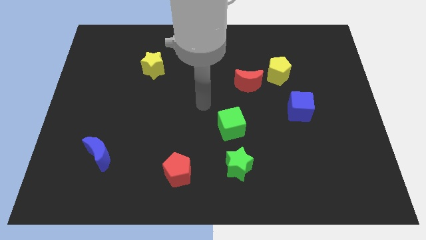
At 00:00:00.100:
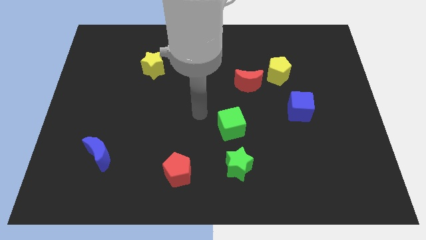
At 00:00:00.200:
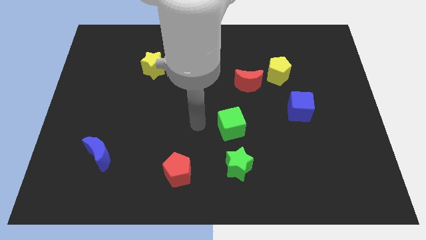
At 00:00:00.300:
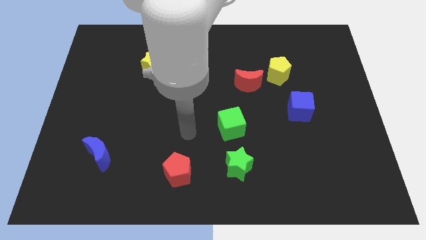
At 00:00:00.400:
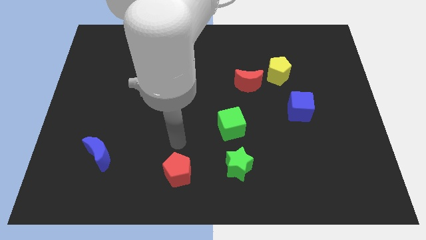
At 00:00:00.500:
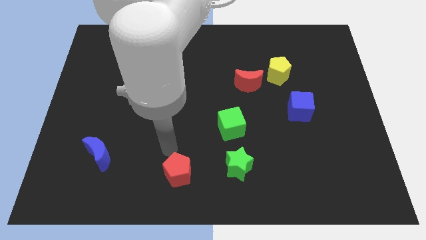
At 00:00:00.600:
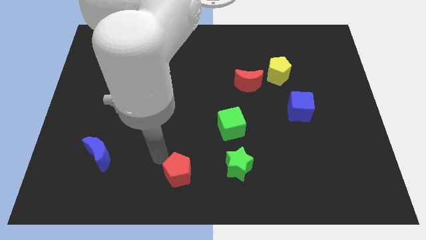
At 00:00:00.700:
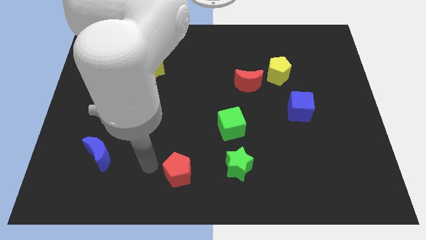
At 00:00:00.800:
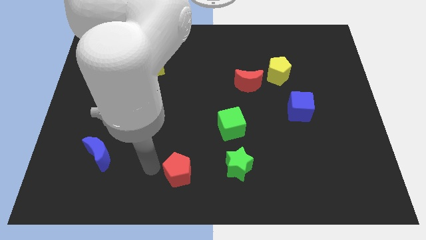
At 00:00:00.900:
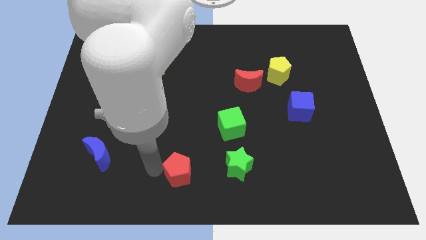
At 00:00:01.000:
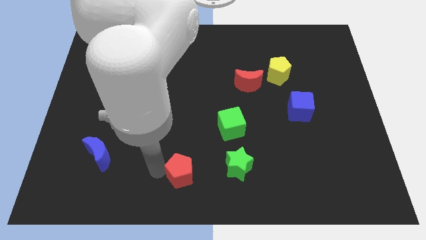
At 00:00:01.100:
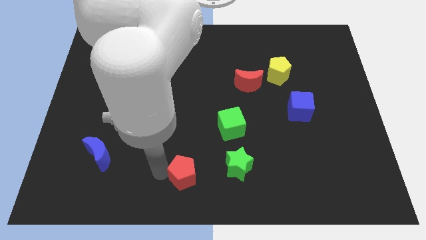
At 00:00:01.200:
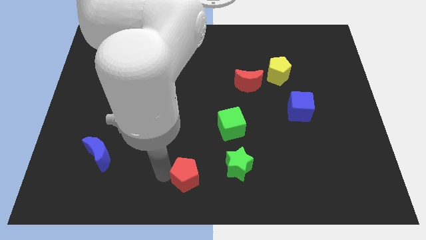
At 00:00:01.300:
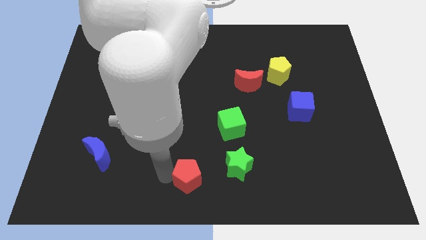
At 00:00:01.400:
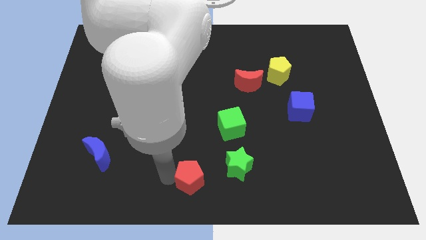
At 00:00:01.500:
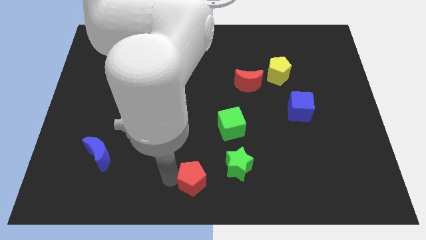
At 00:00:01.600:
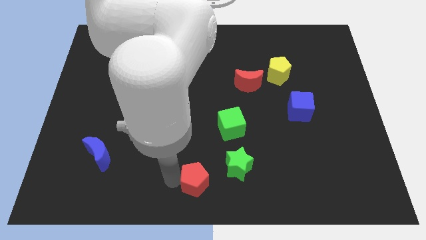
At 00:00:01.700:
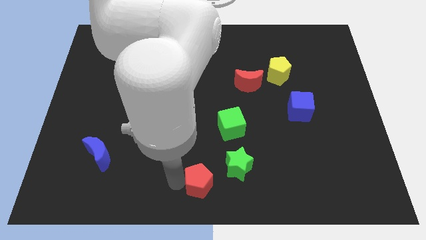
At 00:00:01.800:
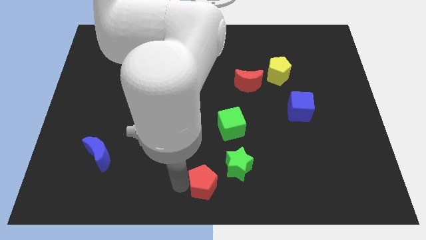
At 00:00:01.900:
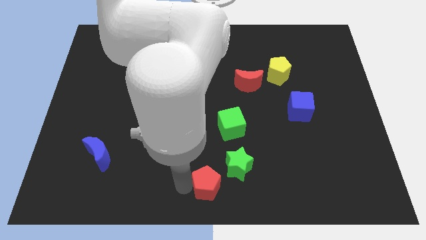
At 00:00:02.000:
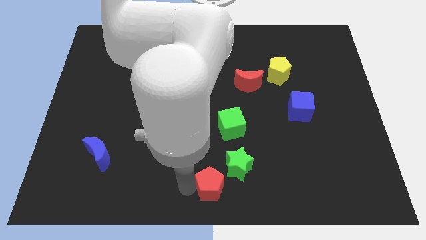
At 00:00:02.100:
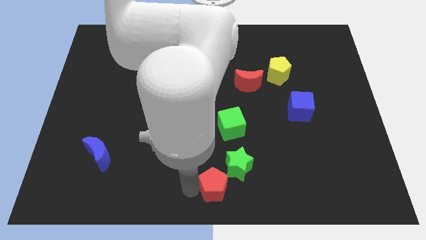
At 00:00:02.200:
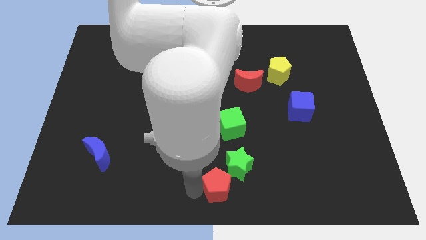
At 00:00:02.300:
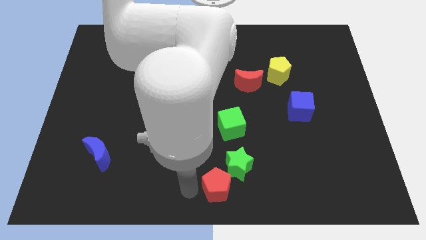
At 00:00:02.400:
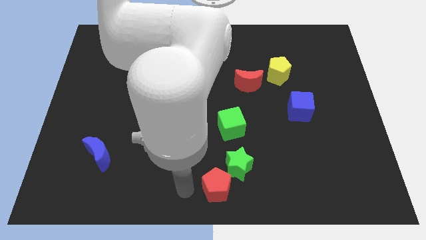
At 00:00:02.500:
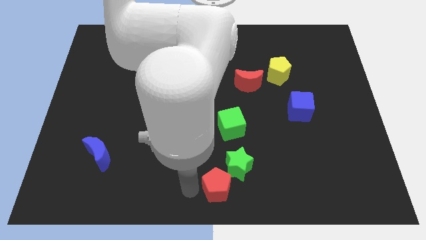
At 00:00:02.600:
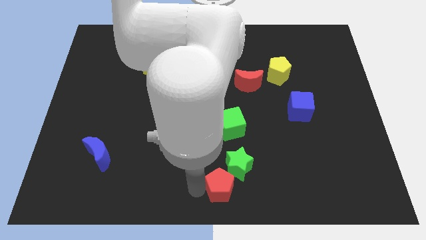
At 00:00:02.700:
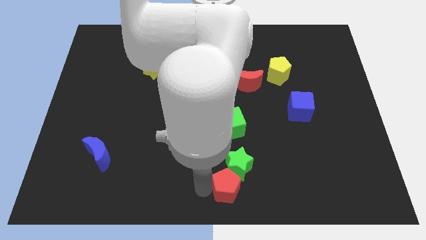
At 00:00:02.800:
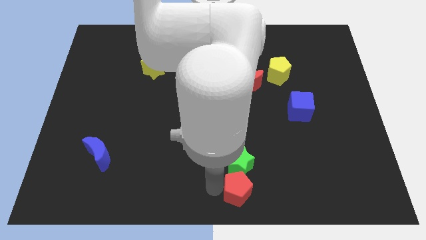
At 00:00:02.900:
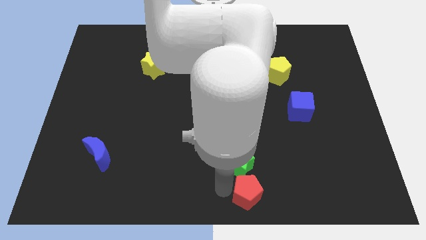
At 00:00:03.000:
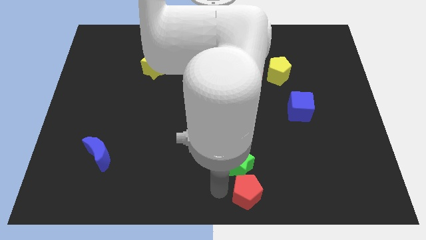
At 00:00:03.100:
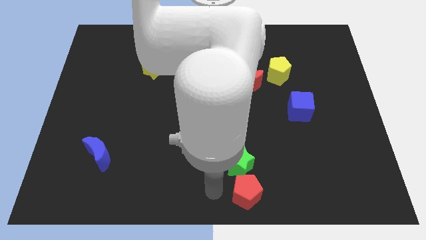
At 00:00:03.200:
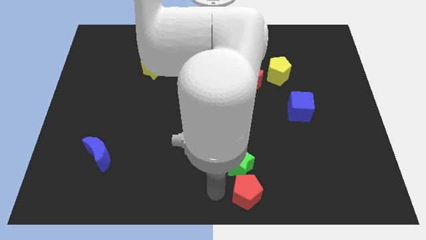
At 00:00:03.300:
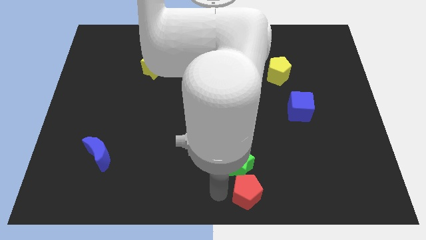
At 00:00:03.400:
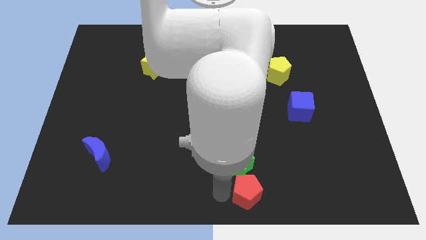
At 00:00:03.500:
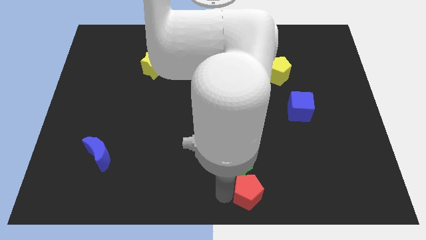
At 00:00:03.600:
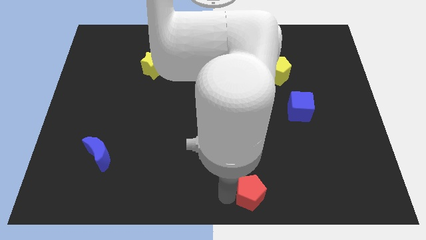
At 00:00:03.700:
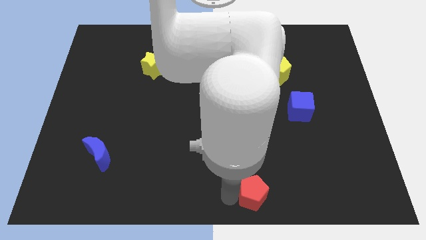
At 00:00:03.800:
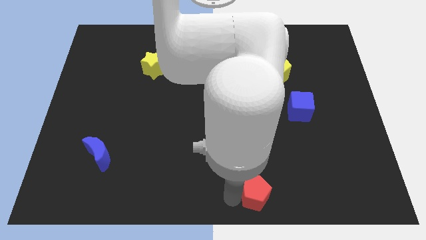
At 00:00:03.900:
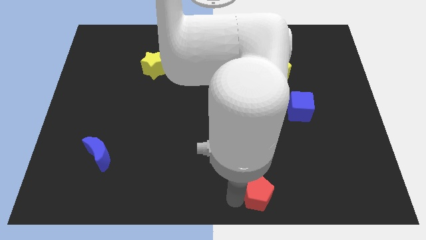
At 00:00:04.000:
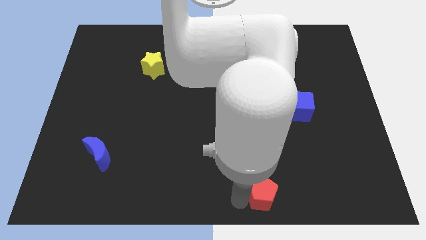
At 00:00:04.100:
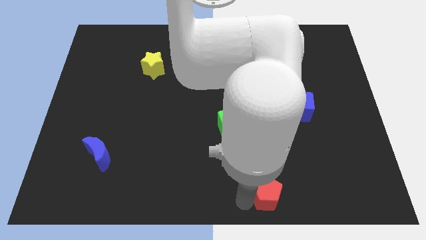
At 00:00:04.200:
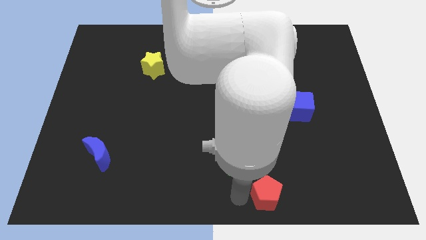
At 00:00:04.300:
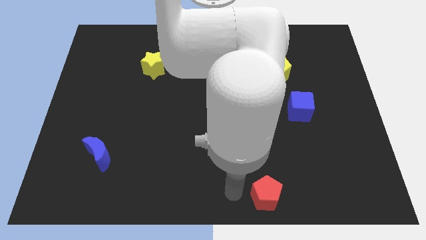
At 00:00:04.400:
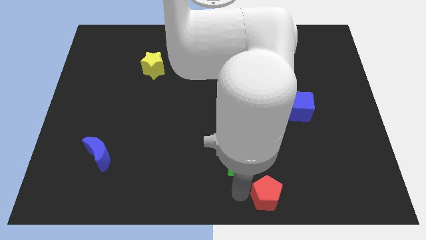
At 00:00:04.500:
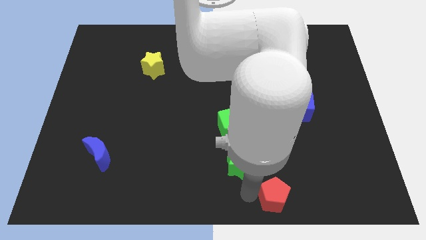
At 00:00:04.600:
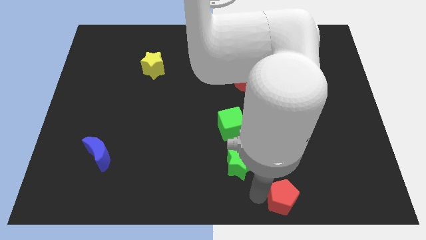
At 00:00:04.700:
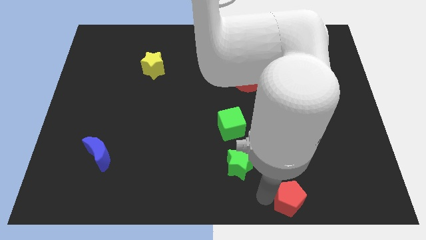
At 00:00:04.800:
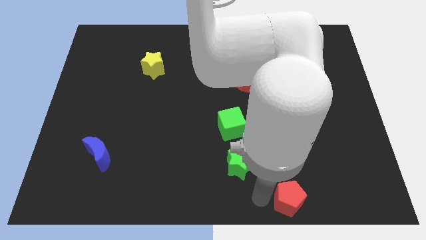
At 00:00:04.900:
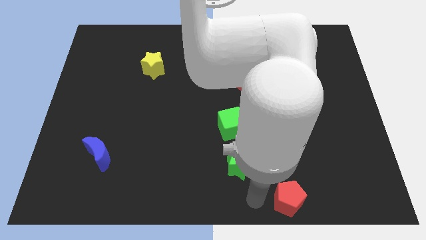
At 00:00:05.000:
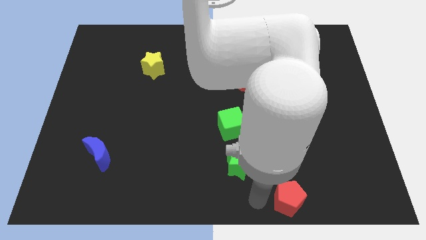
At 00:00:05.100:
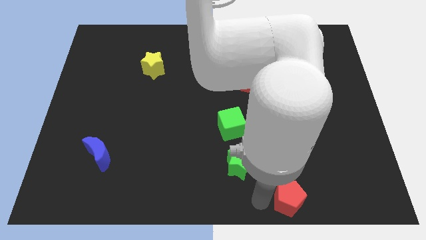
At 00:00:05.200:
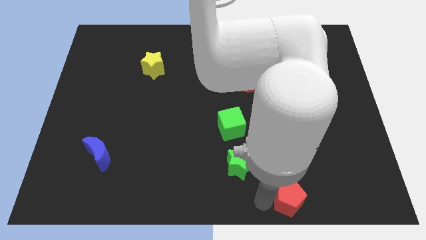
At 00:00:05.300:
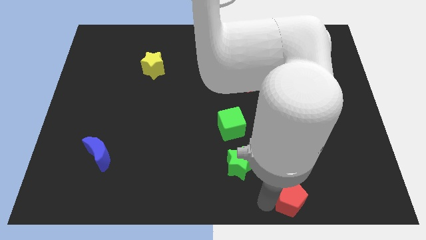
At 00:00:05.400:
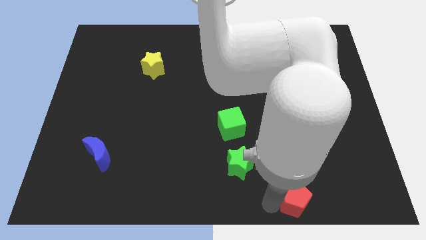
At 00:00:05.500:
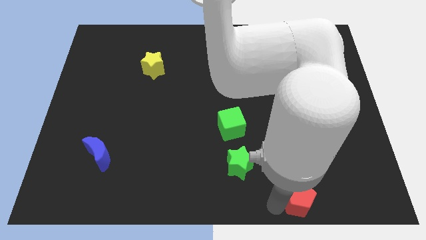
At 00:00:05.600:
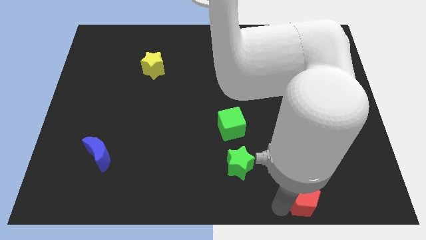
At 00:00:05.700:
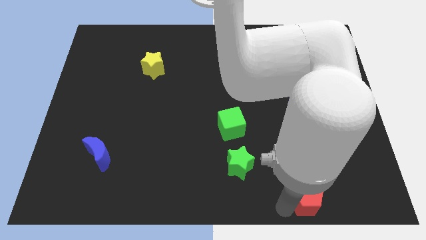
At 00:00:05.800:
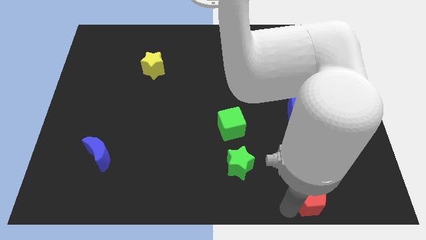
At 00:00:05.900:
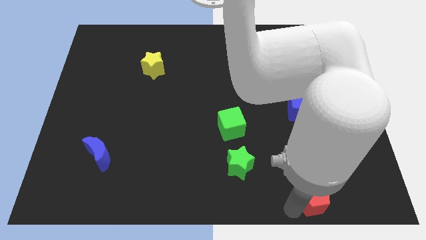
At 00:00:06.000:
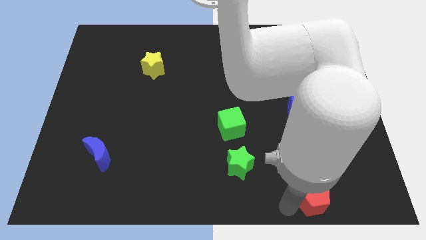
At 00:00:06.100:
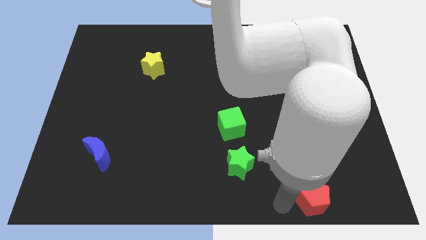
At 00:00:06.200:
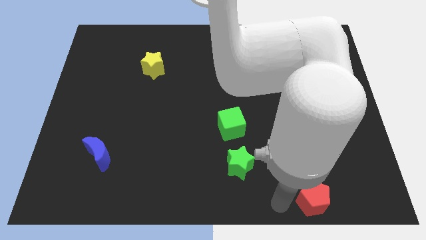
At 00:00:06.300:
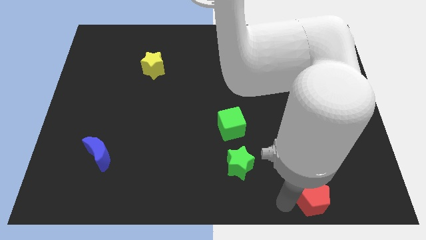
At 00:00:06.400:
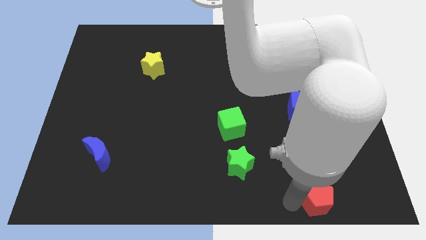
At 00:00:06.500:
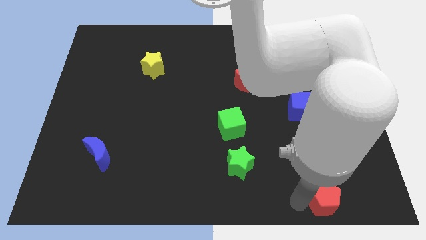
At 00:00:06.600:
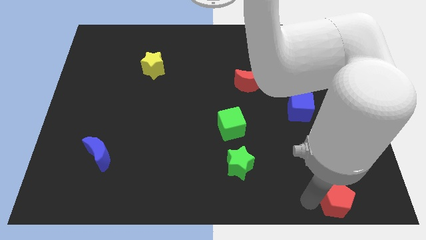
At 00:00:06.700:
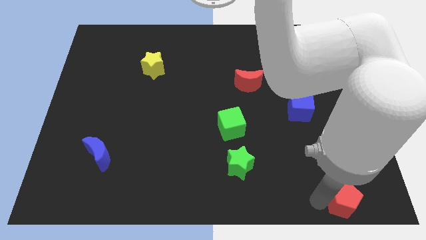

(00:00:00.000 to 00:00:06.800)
put the red pentagon to the lower right corner

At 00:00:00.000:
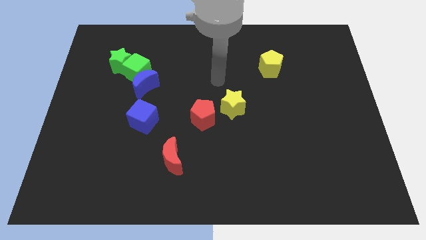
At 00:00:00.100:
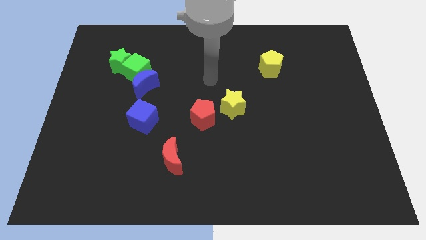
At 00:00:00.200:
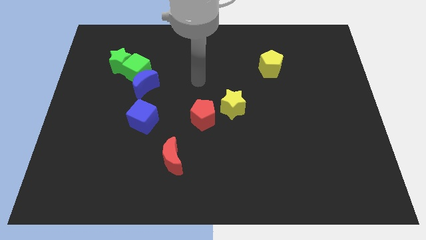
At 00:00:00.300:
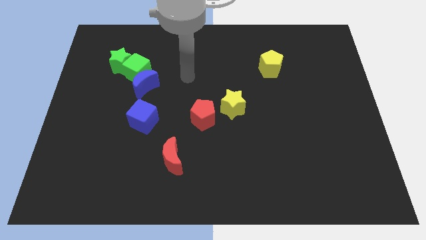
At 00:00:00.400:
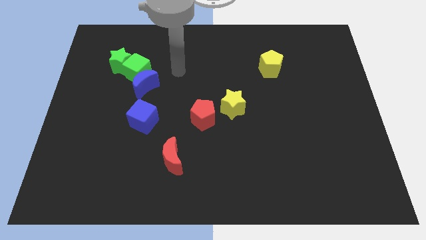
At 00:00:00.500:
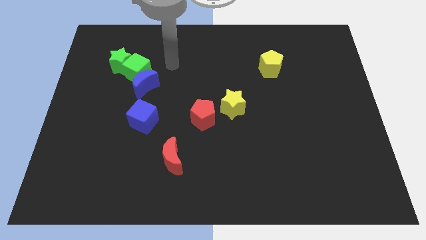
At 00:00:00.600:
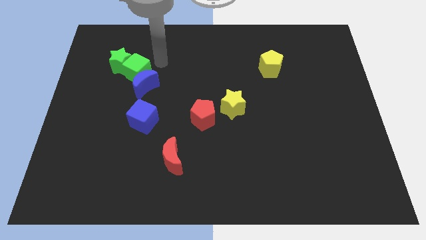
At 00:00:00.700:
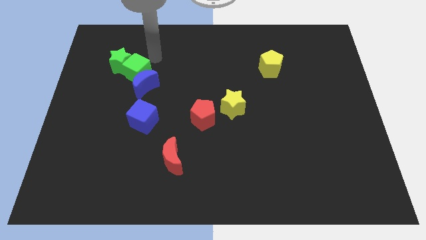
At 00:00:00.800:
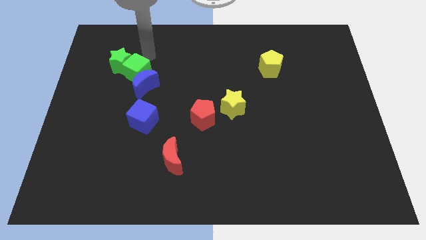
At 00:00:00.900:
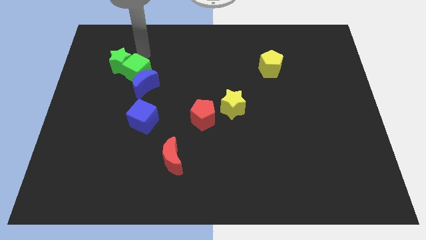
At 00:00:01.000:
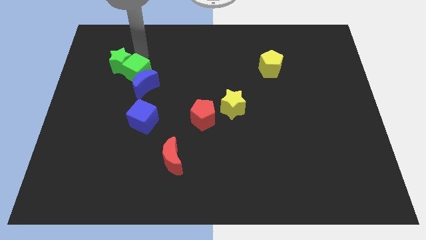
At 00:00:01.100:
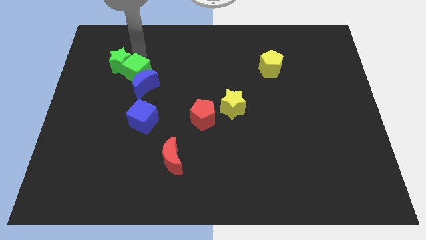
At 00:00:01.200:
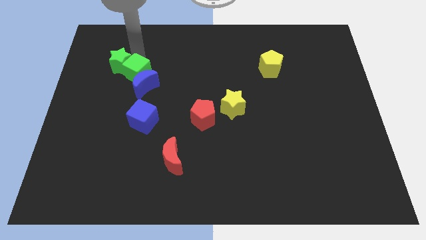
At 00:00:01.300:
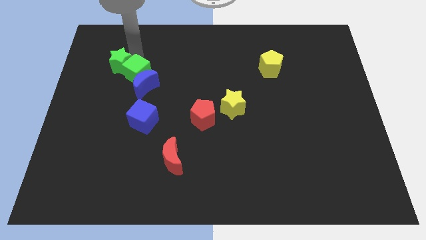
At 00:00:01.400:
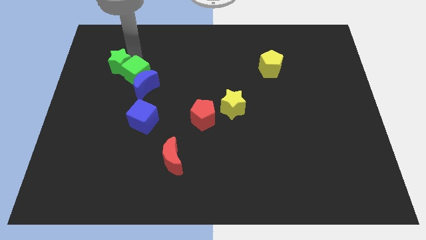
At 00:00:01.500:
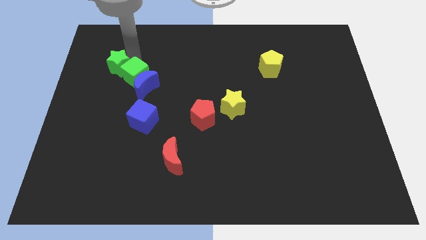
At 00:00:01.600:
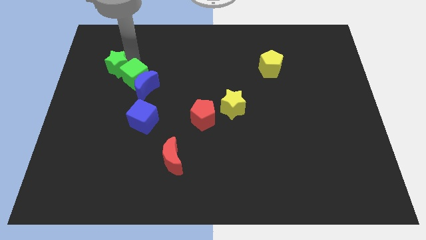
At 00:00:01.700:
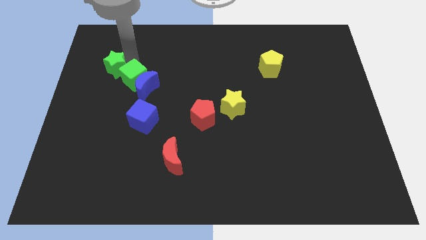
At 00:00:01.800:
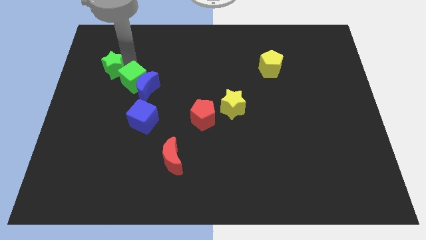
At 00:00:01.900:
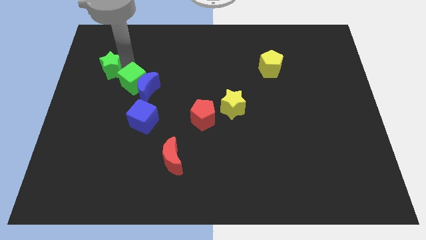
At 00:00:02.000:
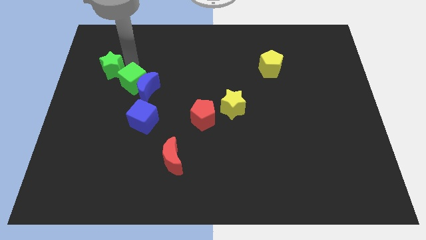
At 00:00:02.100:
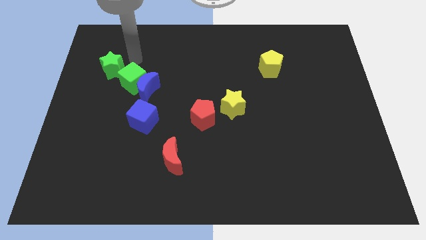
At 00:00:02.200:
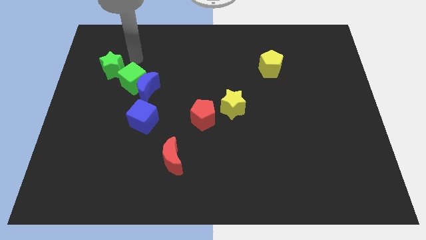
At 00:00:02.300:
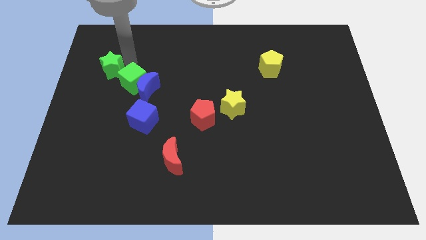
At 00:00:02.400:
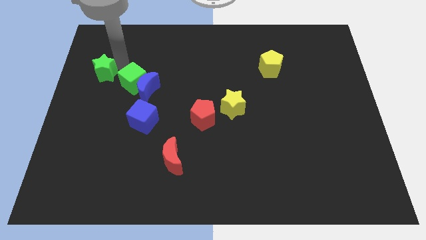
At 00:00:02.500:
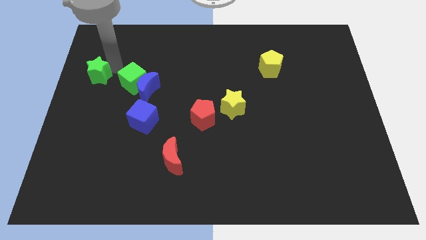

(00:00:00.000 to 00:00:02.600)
push the green star to the left side of the board
